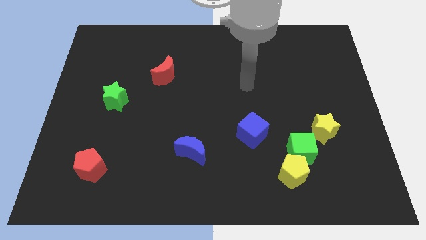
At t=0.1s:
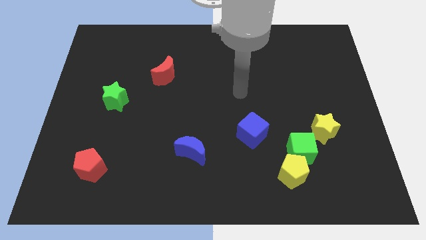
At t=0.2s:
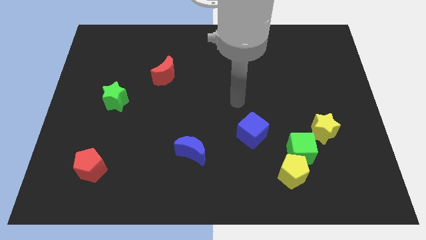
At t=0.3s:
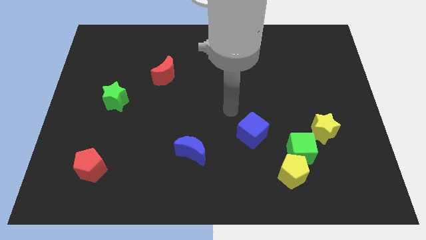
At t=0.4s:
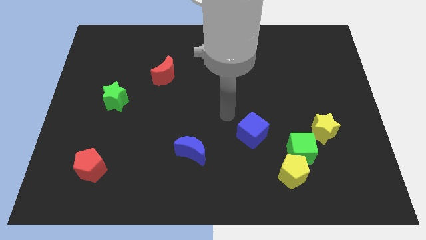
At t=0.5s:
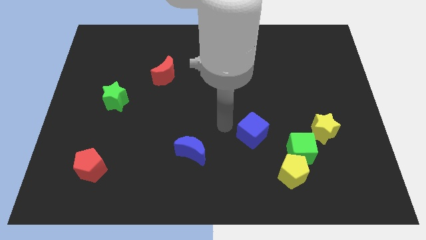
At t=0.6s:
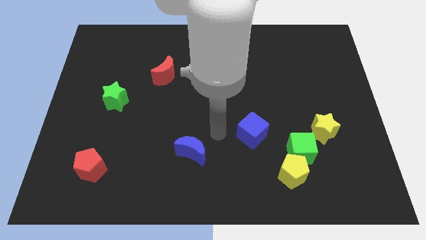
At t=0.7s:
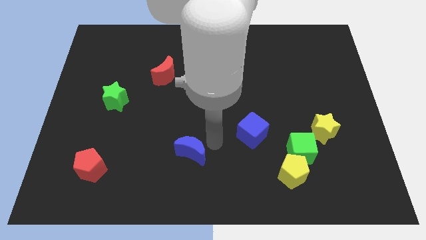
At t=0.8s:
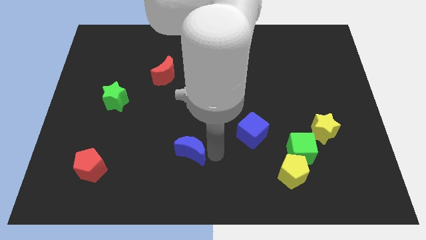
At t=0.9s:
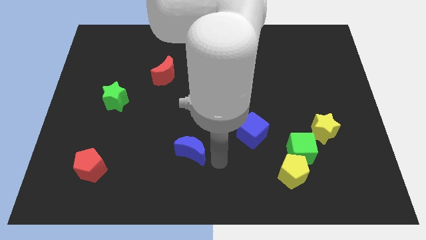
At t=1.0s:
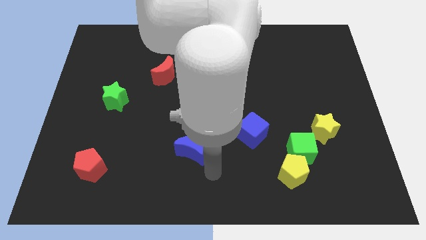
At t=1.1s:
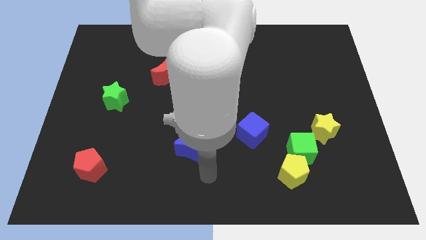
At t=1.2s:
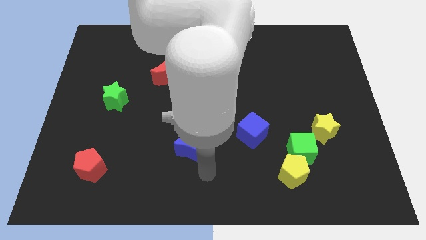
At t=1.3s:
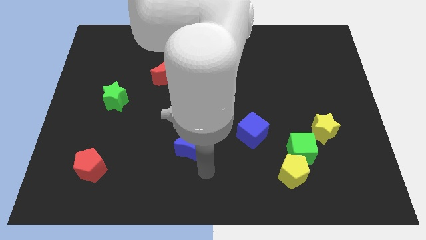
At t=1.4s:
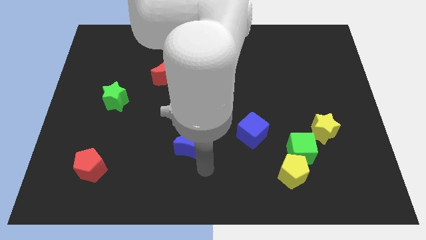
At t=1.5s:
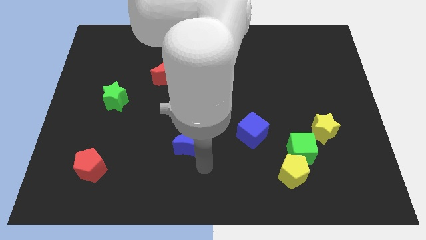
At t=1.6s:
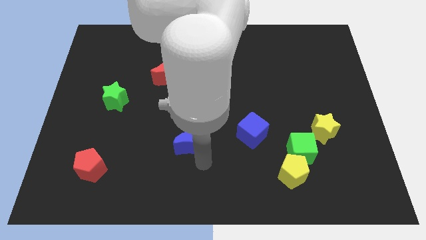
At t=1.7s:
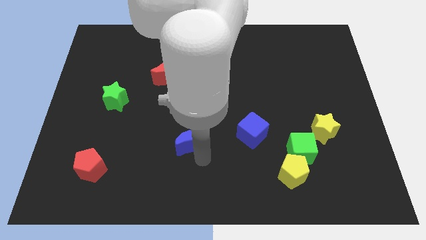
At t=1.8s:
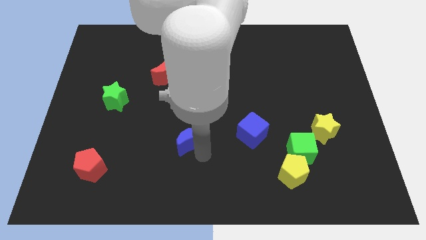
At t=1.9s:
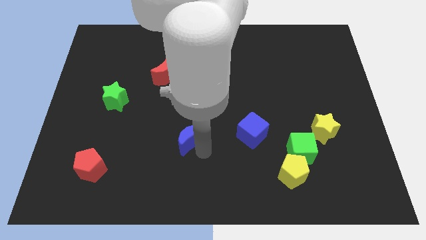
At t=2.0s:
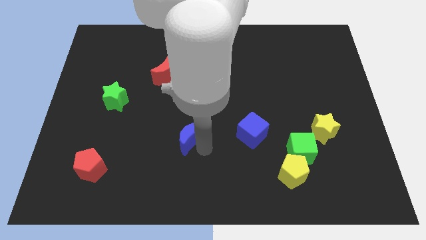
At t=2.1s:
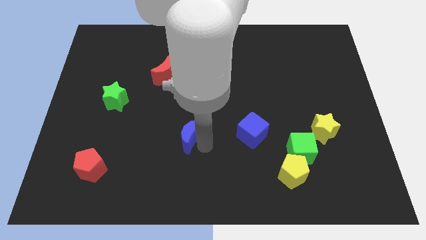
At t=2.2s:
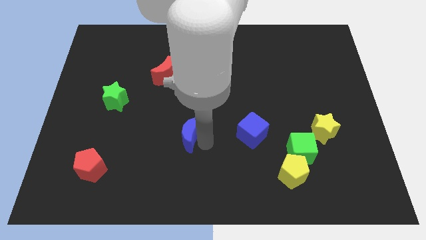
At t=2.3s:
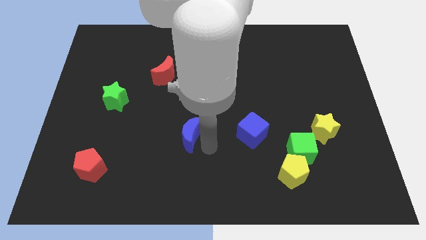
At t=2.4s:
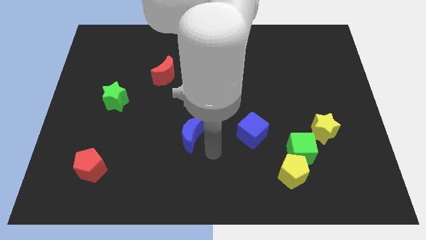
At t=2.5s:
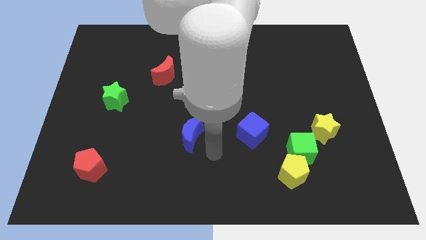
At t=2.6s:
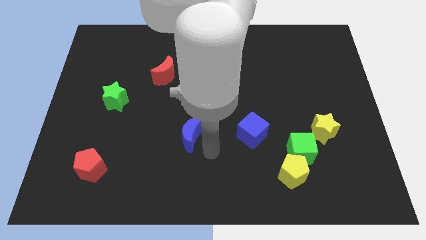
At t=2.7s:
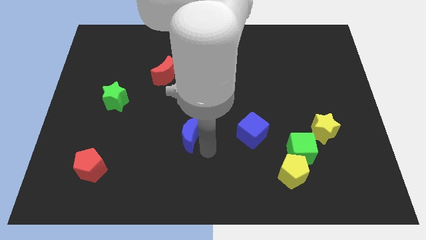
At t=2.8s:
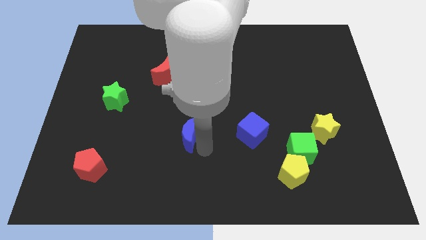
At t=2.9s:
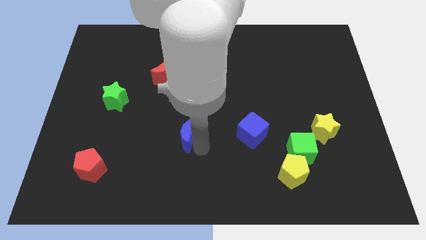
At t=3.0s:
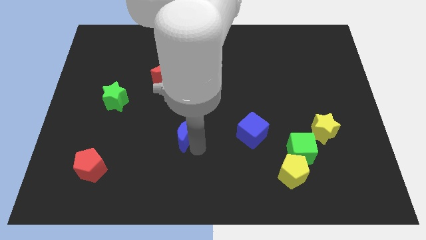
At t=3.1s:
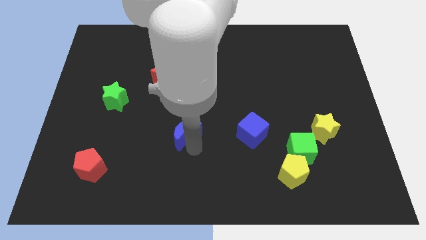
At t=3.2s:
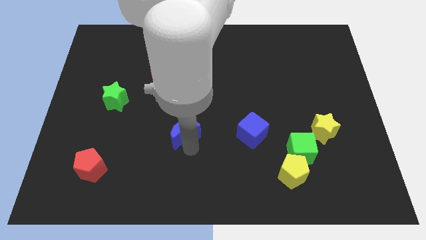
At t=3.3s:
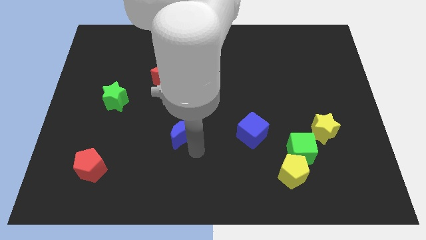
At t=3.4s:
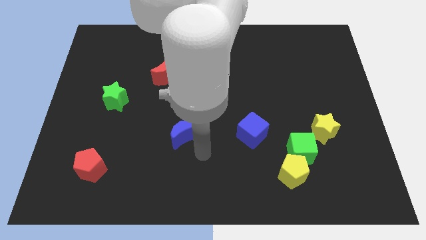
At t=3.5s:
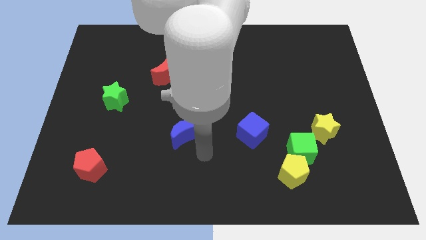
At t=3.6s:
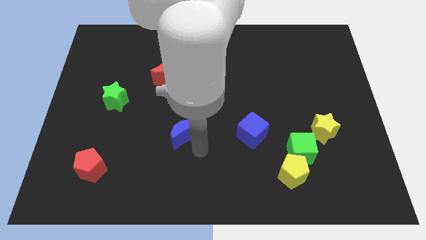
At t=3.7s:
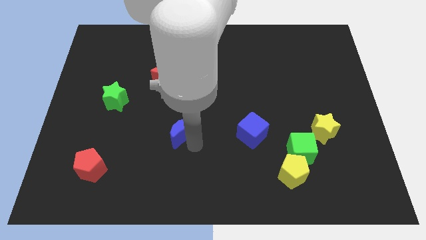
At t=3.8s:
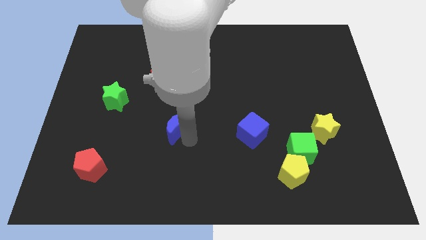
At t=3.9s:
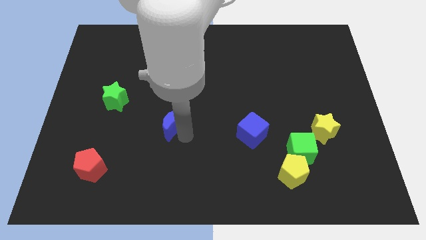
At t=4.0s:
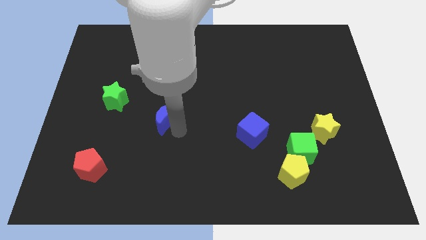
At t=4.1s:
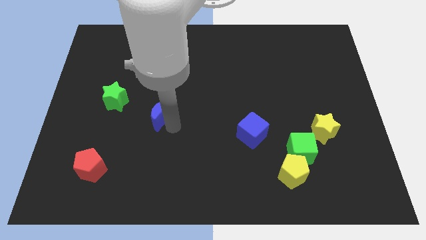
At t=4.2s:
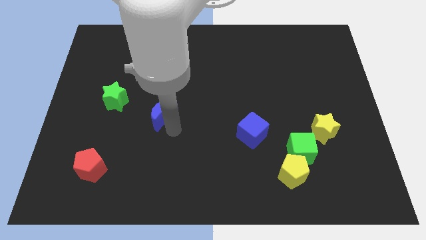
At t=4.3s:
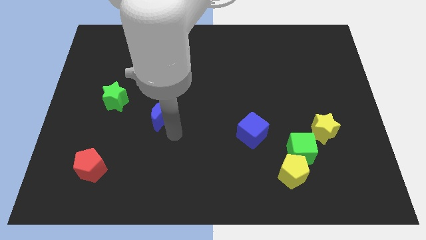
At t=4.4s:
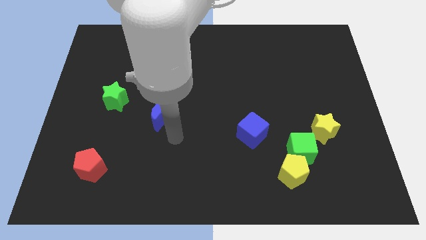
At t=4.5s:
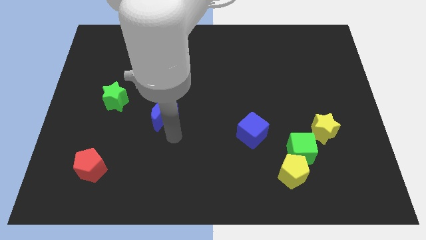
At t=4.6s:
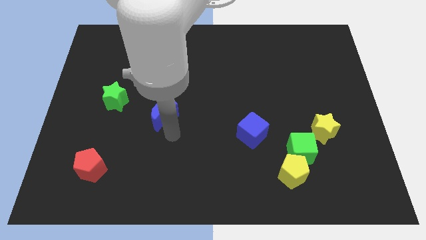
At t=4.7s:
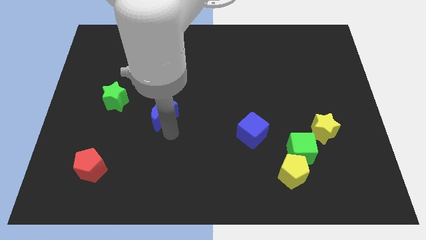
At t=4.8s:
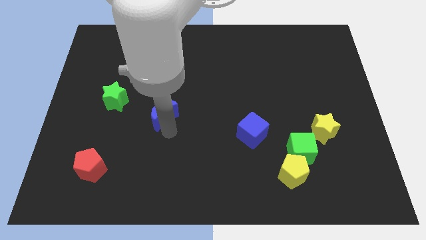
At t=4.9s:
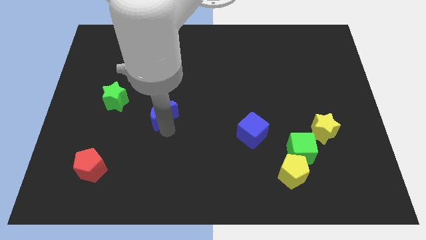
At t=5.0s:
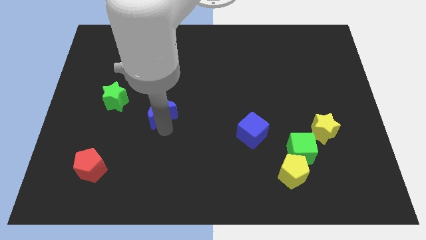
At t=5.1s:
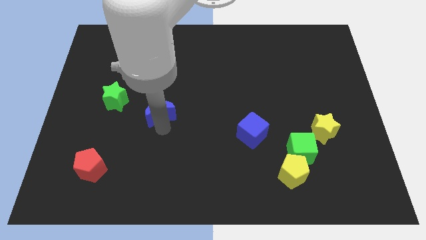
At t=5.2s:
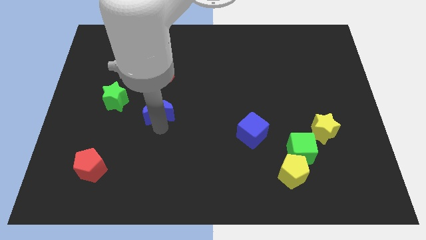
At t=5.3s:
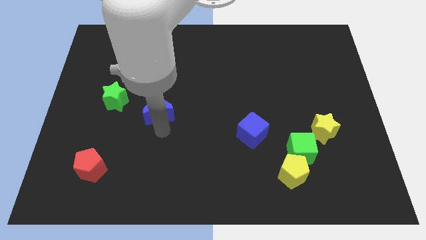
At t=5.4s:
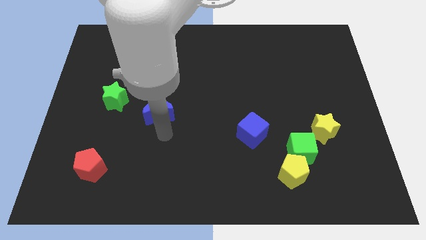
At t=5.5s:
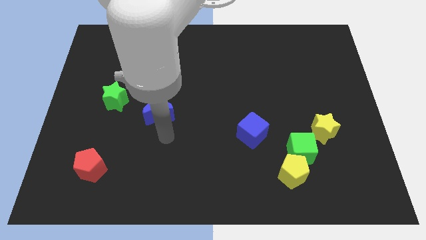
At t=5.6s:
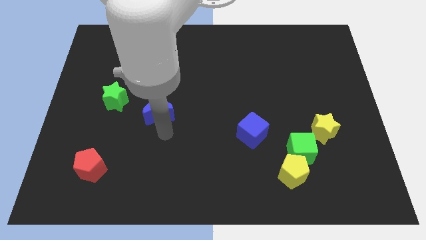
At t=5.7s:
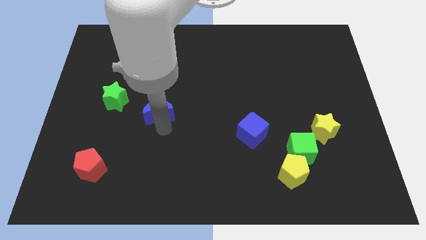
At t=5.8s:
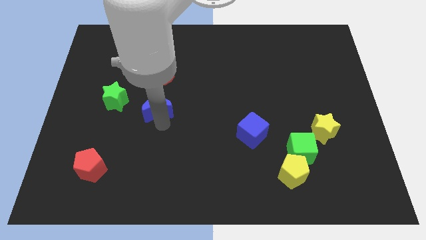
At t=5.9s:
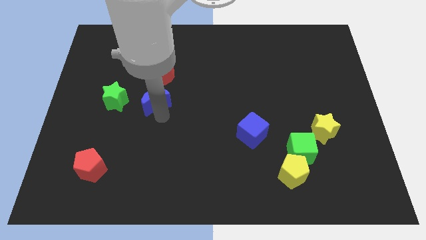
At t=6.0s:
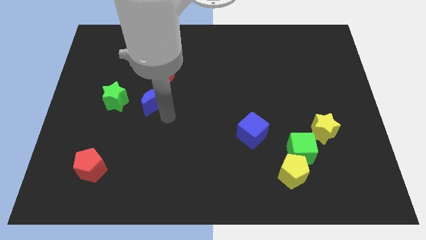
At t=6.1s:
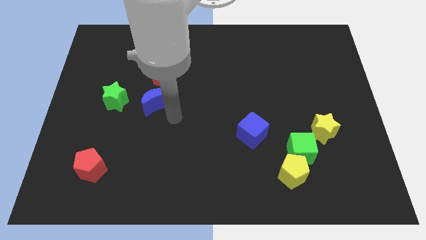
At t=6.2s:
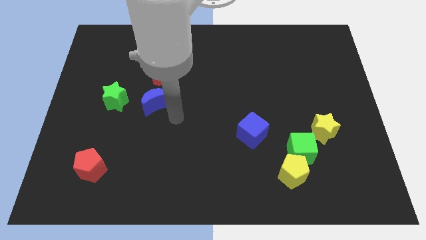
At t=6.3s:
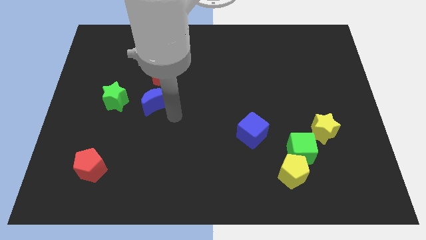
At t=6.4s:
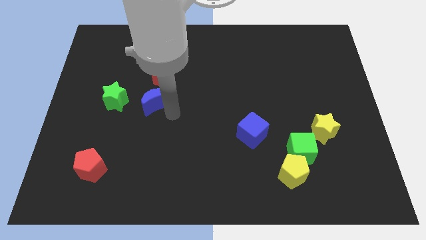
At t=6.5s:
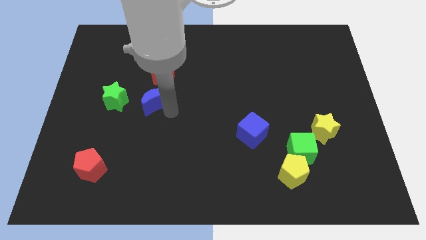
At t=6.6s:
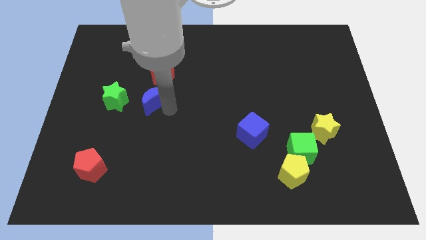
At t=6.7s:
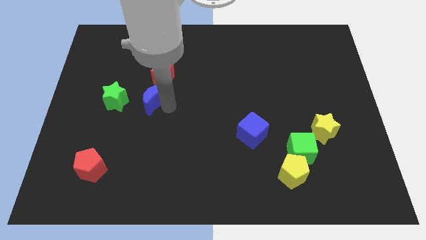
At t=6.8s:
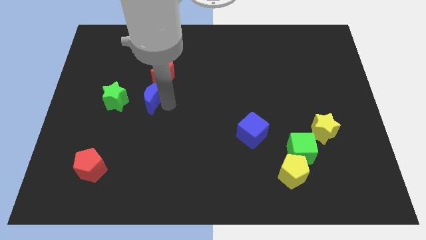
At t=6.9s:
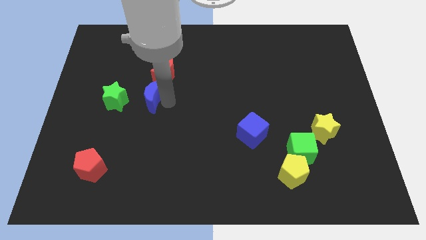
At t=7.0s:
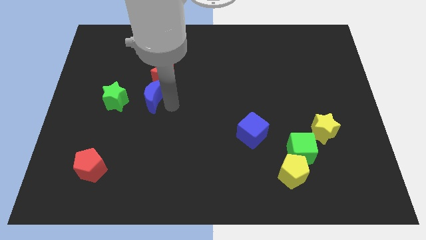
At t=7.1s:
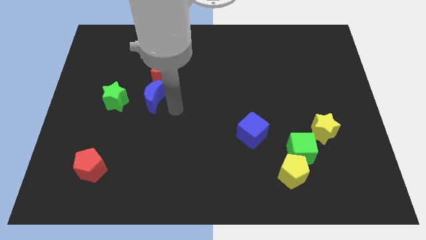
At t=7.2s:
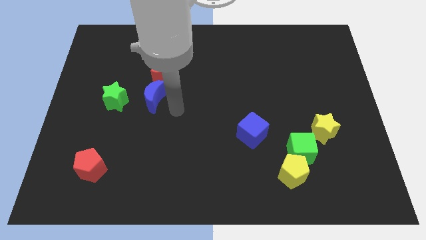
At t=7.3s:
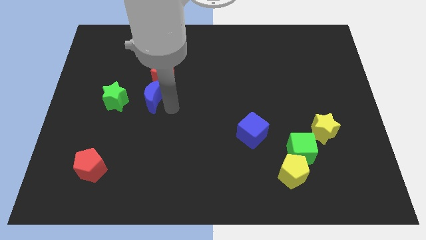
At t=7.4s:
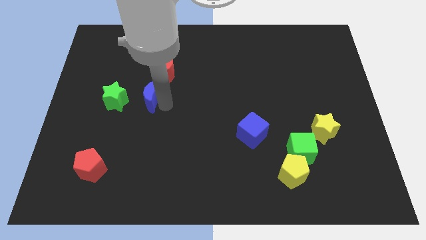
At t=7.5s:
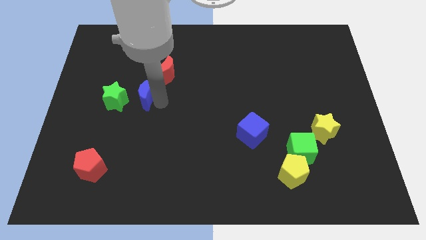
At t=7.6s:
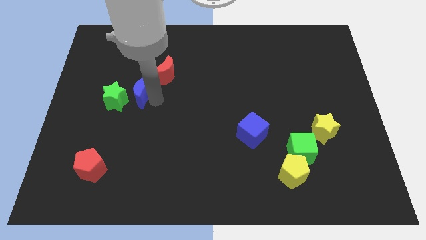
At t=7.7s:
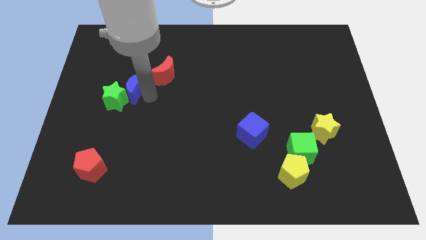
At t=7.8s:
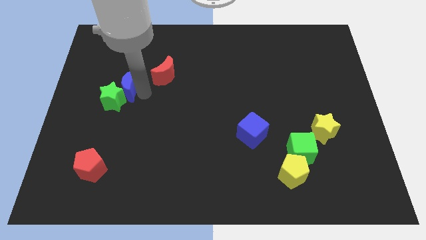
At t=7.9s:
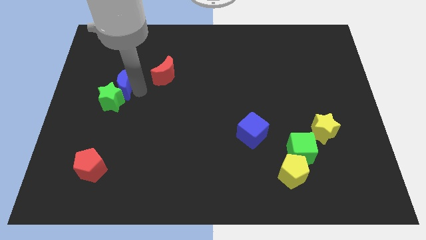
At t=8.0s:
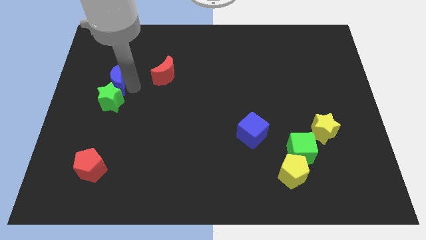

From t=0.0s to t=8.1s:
slide the blue moon to the top left side of the green star
